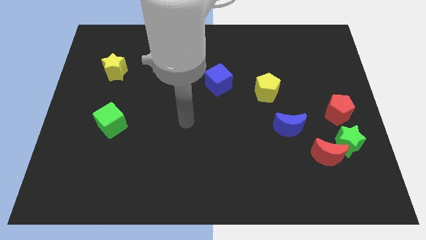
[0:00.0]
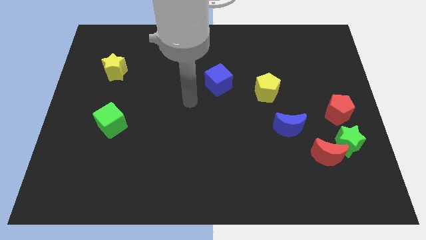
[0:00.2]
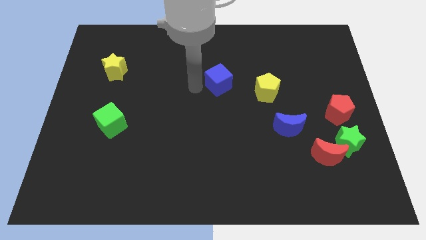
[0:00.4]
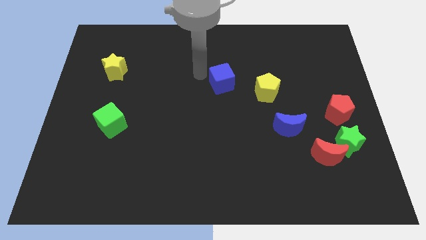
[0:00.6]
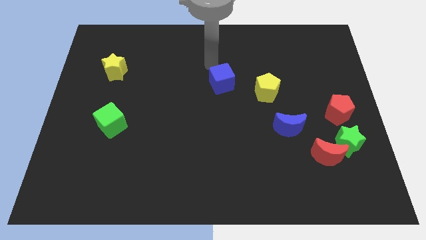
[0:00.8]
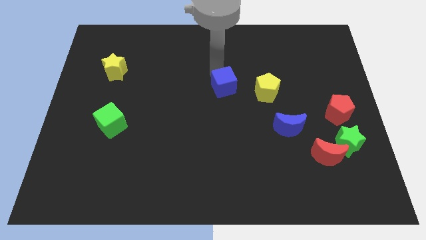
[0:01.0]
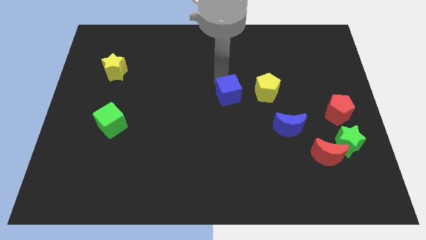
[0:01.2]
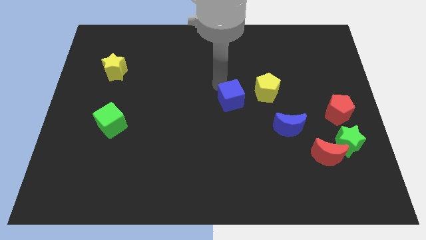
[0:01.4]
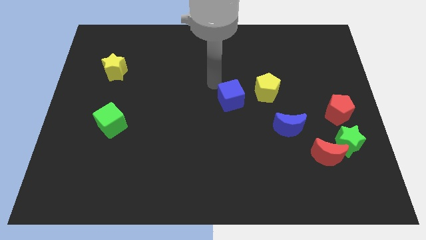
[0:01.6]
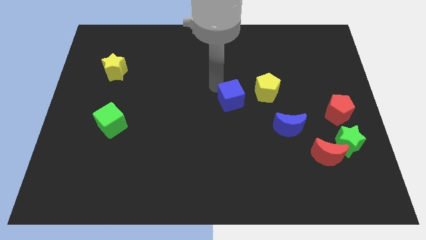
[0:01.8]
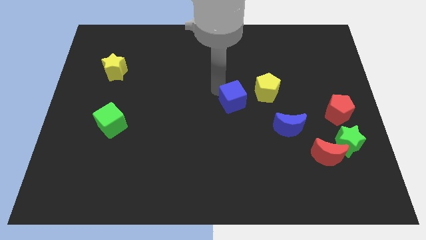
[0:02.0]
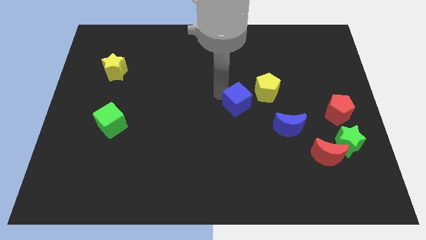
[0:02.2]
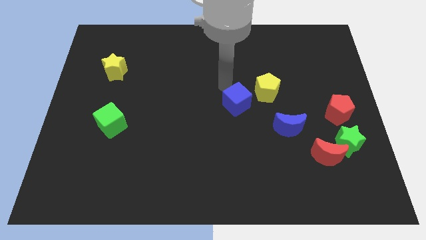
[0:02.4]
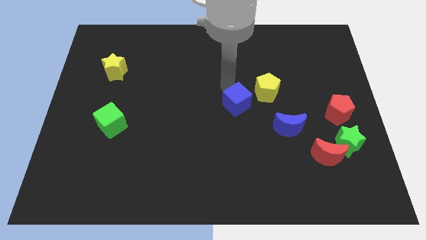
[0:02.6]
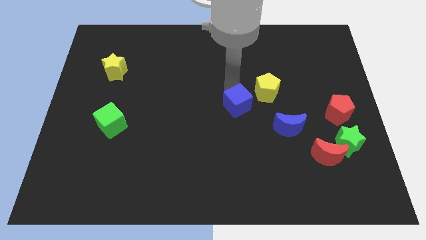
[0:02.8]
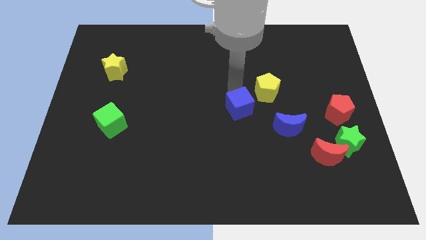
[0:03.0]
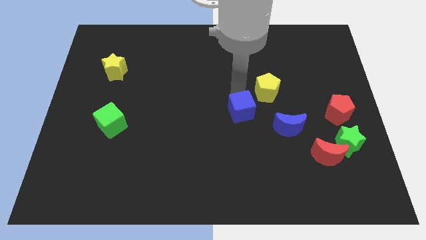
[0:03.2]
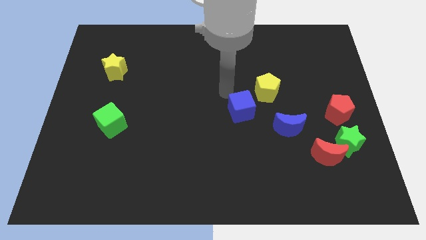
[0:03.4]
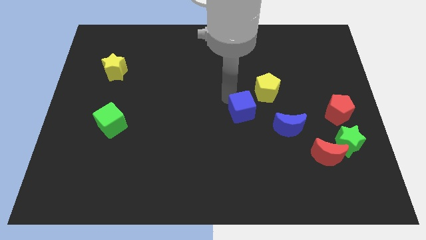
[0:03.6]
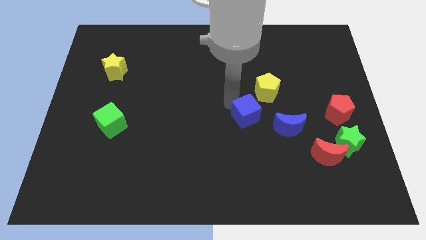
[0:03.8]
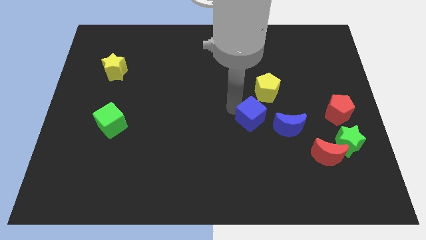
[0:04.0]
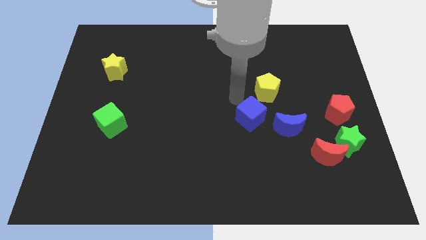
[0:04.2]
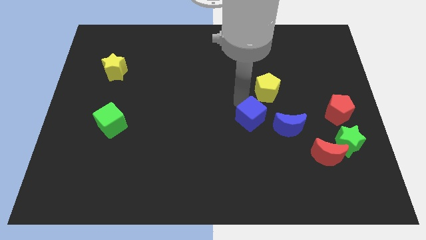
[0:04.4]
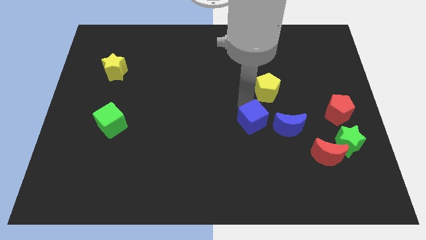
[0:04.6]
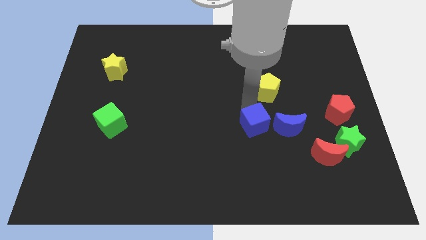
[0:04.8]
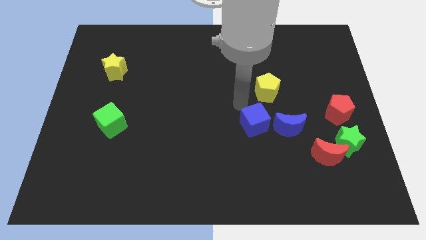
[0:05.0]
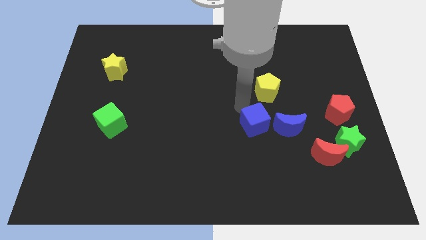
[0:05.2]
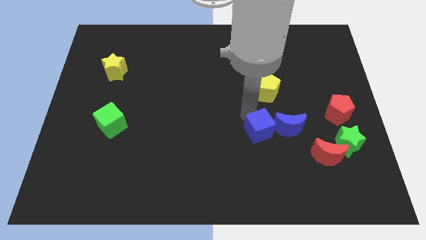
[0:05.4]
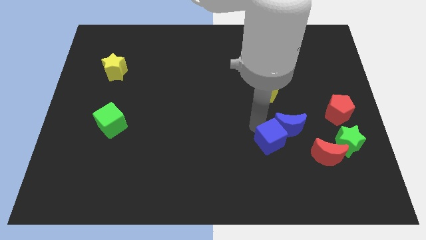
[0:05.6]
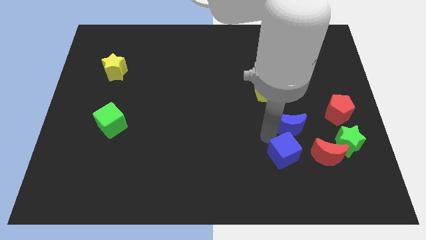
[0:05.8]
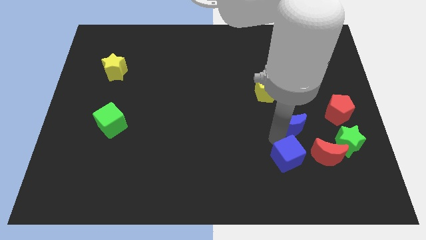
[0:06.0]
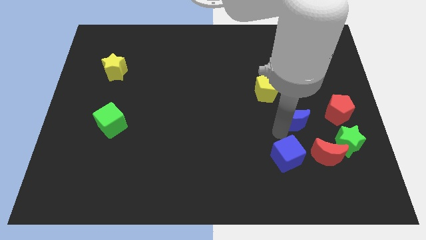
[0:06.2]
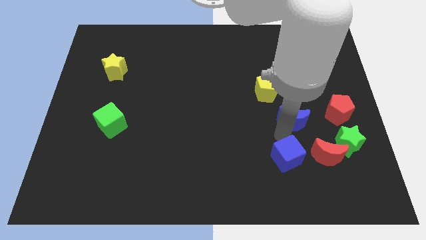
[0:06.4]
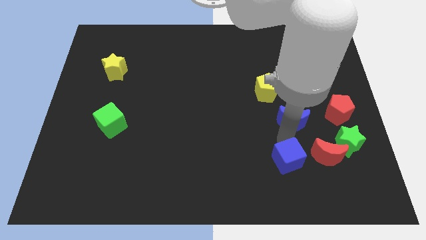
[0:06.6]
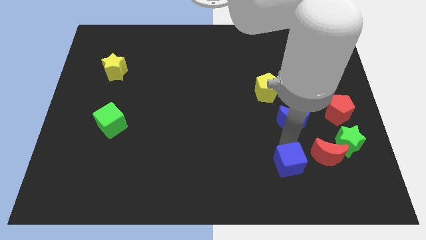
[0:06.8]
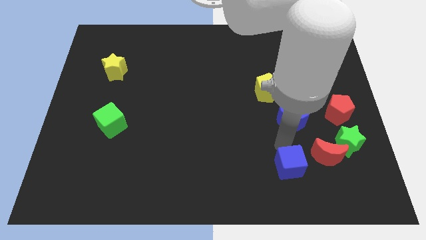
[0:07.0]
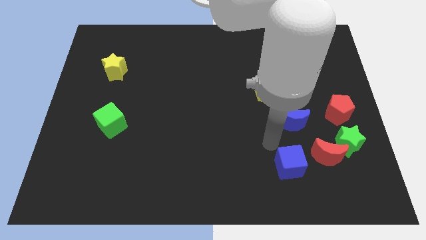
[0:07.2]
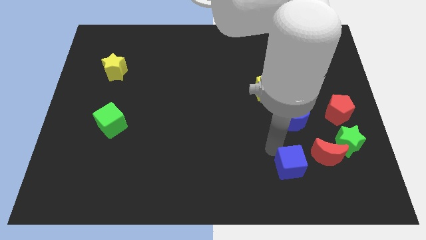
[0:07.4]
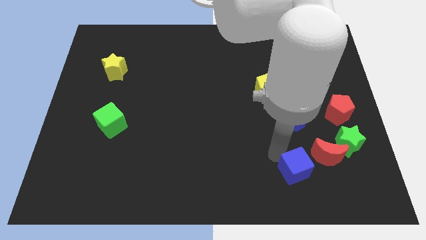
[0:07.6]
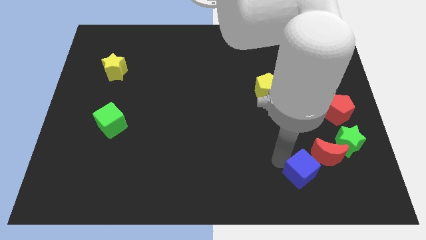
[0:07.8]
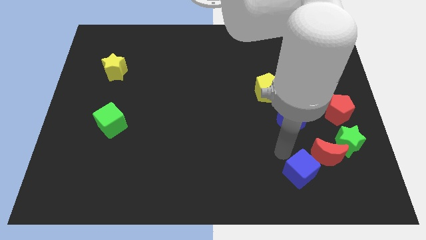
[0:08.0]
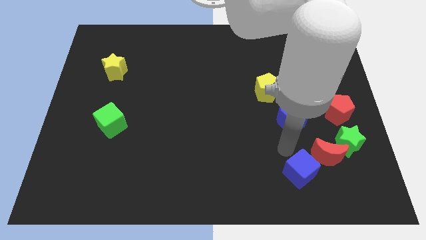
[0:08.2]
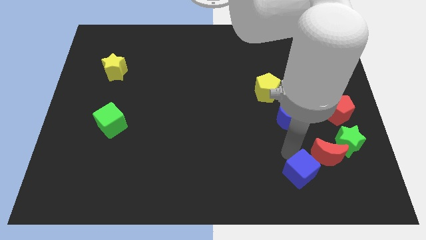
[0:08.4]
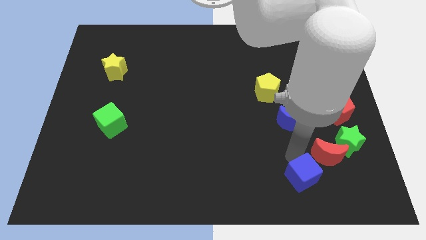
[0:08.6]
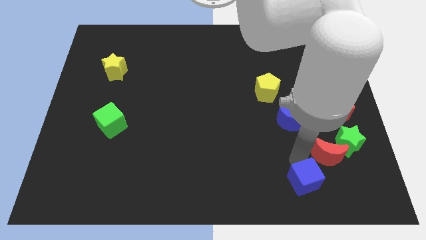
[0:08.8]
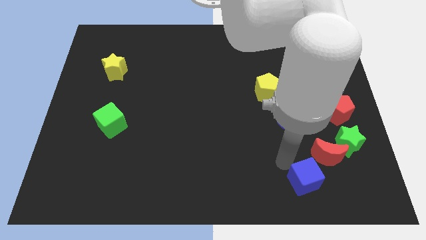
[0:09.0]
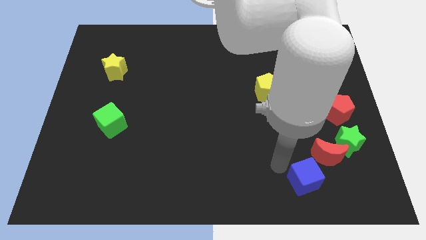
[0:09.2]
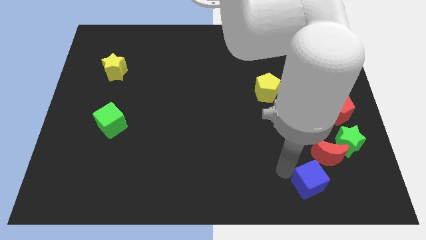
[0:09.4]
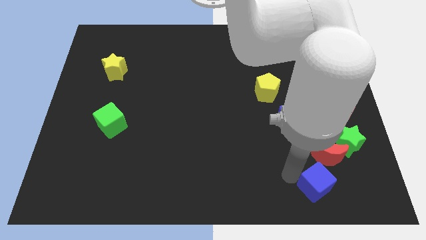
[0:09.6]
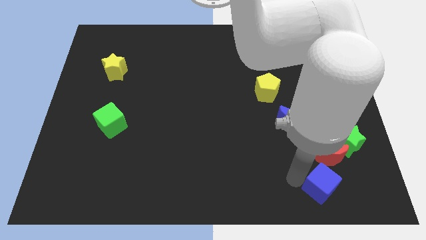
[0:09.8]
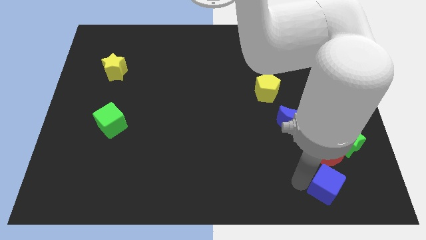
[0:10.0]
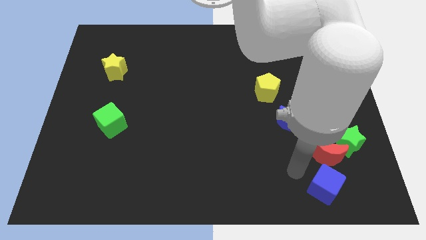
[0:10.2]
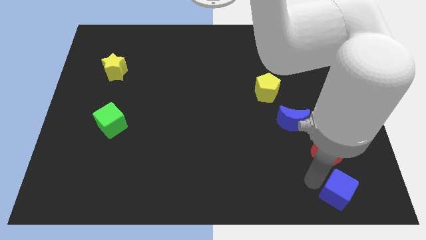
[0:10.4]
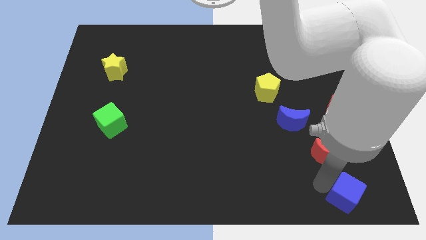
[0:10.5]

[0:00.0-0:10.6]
move the blue cube to the bottom right corner

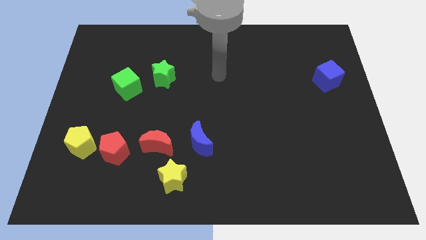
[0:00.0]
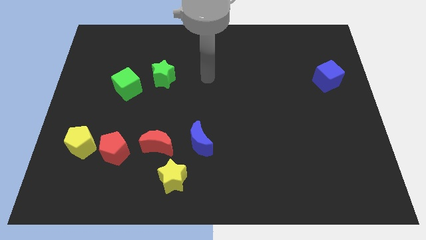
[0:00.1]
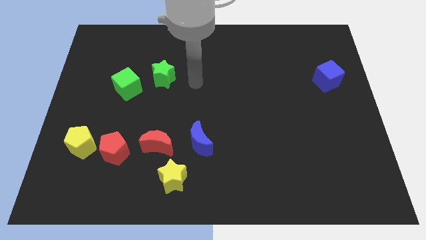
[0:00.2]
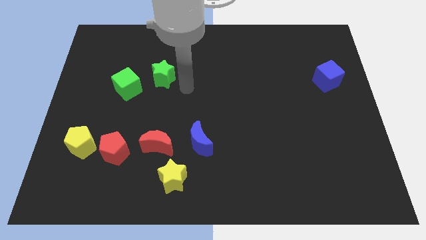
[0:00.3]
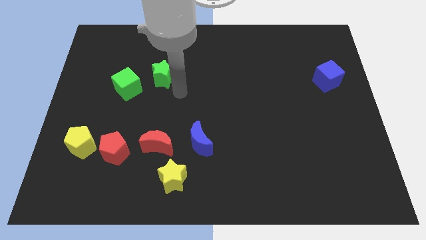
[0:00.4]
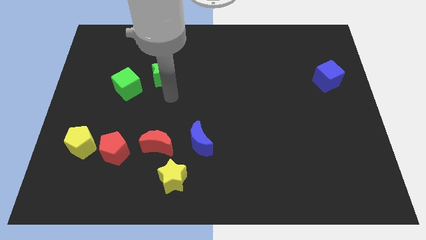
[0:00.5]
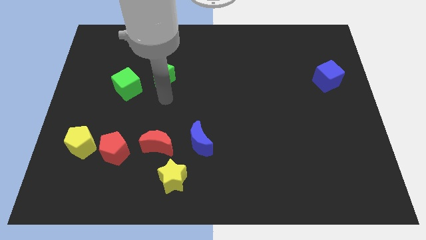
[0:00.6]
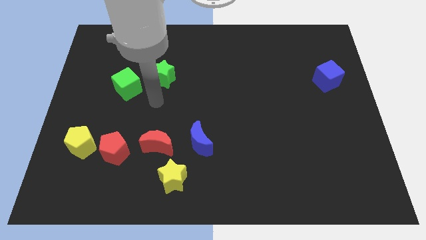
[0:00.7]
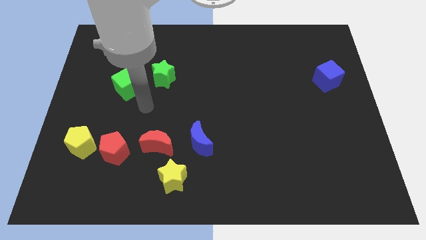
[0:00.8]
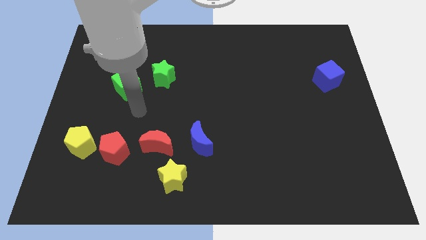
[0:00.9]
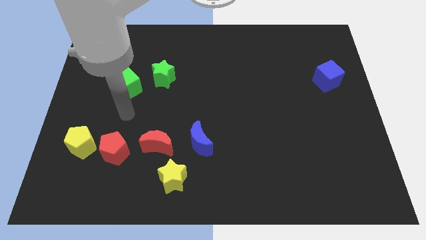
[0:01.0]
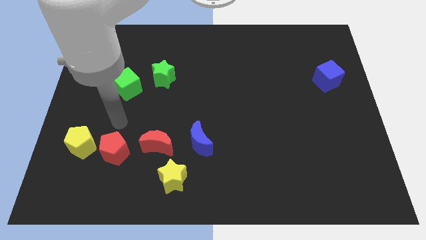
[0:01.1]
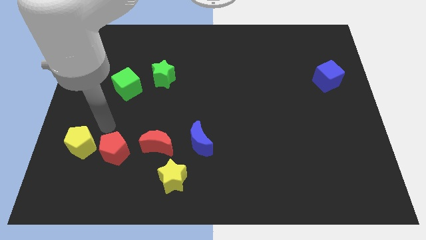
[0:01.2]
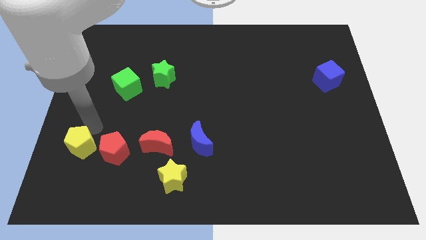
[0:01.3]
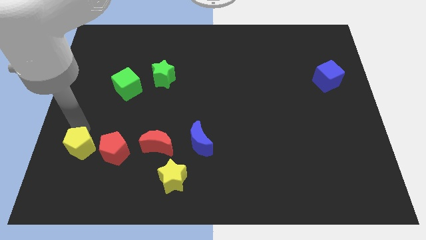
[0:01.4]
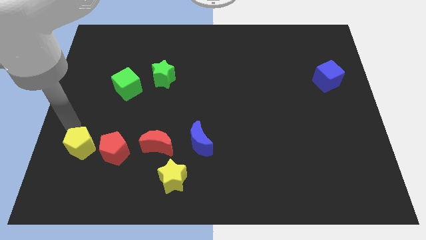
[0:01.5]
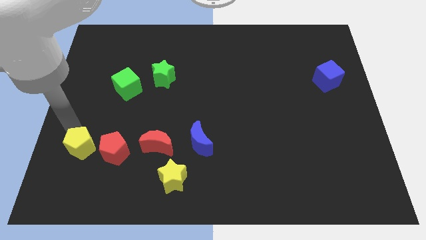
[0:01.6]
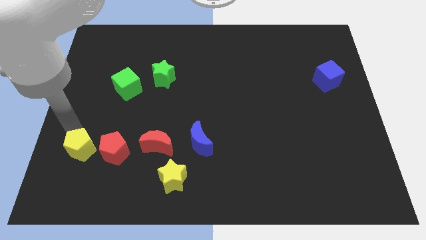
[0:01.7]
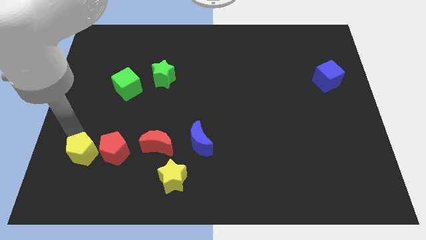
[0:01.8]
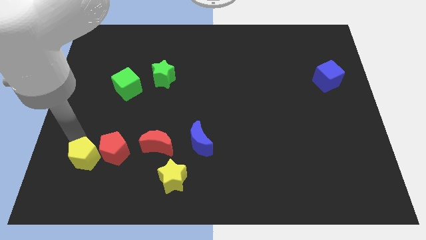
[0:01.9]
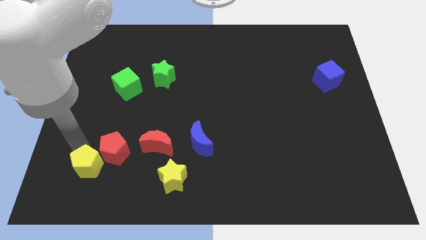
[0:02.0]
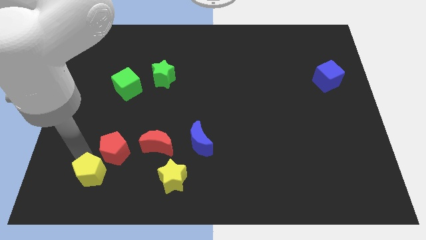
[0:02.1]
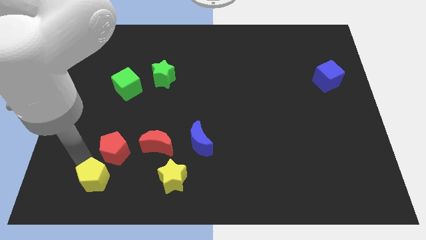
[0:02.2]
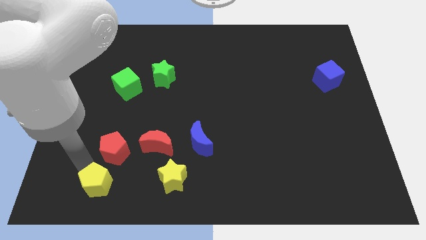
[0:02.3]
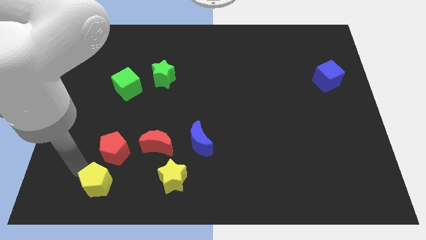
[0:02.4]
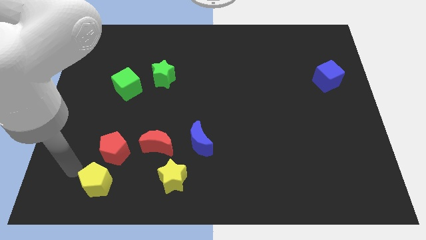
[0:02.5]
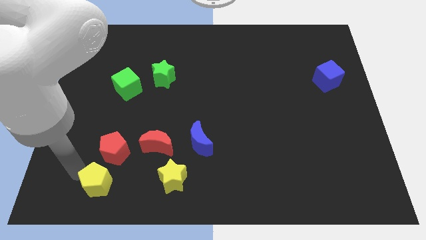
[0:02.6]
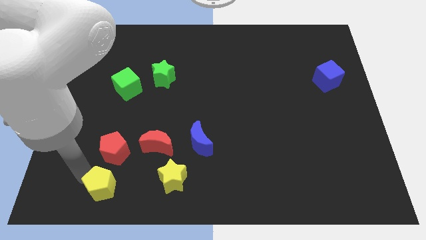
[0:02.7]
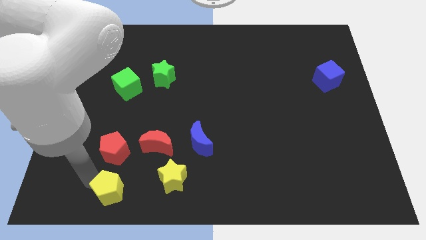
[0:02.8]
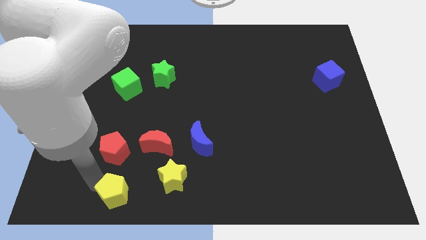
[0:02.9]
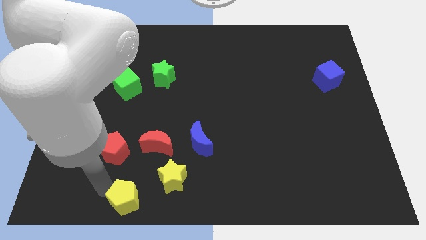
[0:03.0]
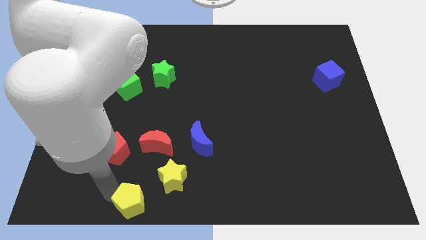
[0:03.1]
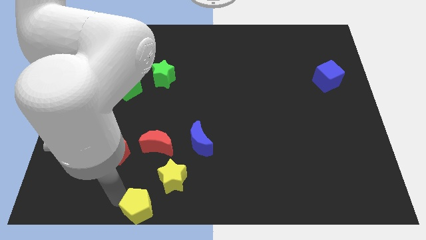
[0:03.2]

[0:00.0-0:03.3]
move the yellow pentagon to the bottom side
